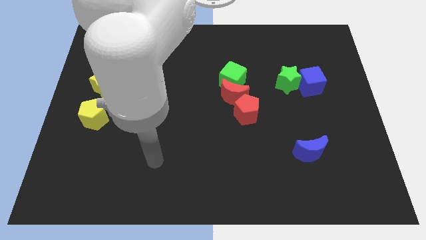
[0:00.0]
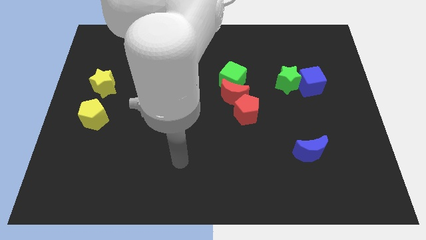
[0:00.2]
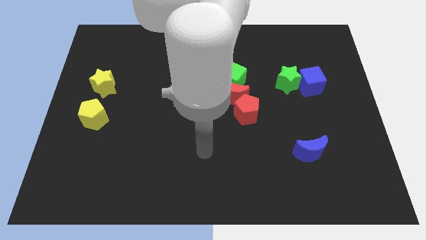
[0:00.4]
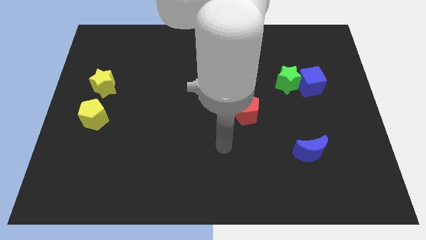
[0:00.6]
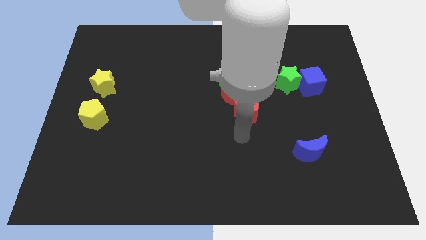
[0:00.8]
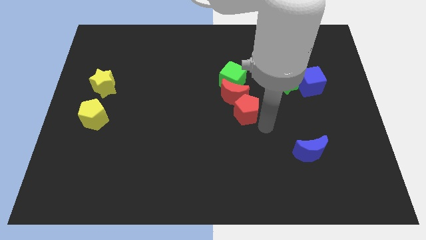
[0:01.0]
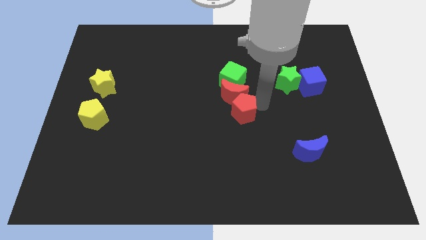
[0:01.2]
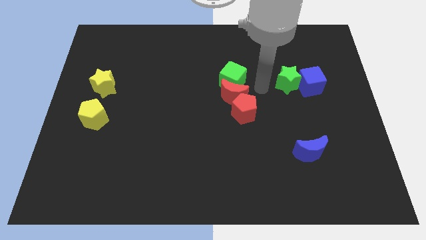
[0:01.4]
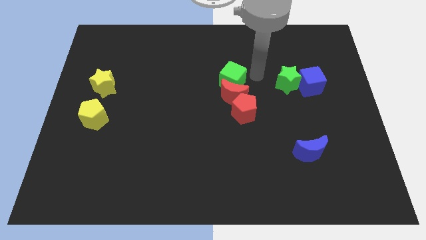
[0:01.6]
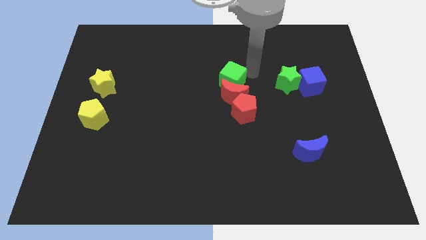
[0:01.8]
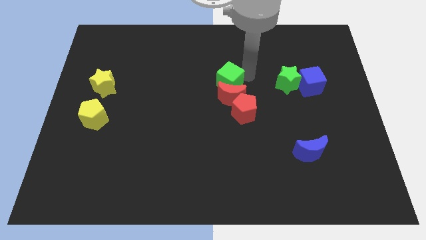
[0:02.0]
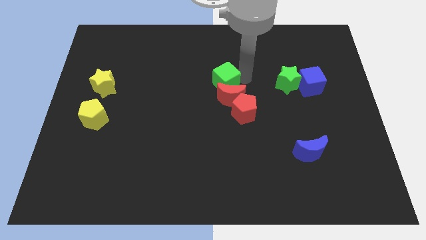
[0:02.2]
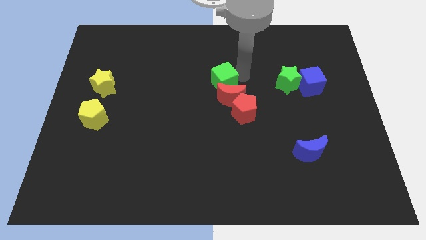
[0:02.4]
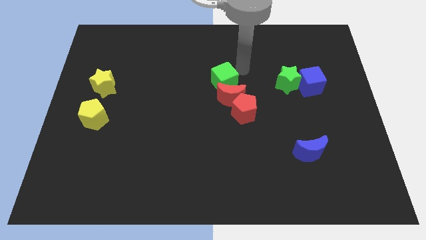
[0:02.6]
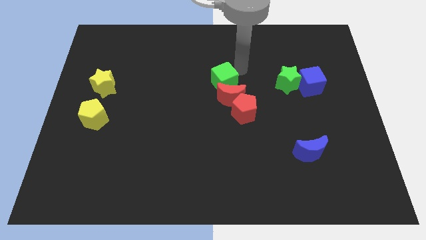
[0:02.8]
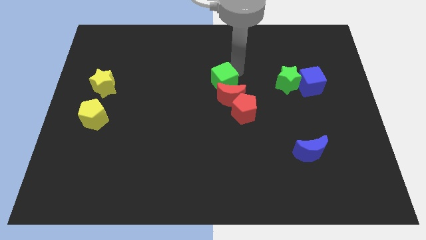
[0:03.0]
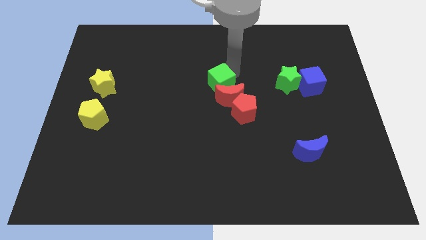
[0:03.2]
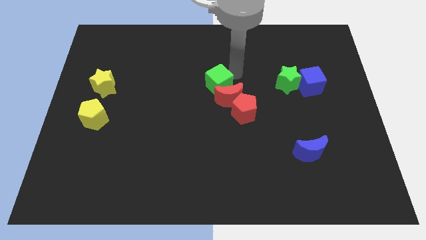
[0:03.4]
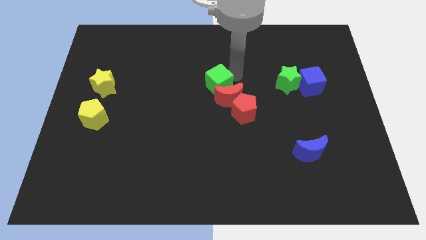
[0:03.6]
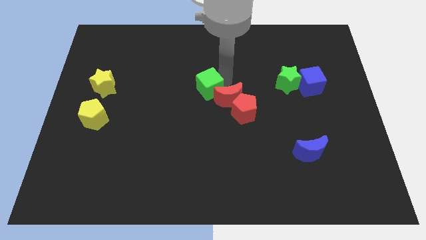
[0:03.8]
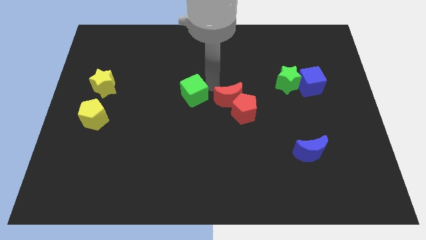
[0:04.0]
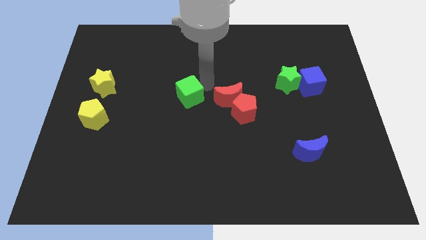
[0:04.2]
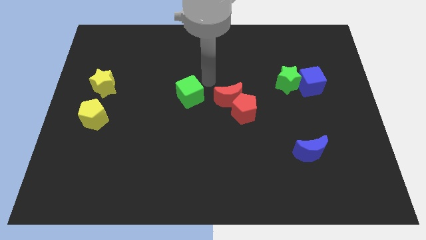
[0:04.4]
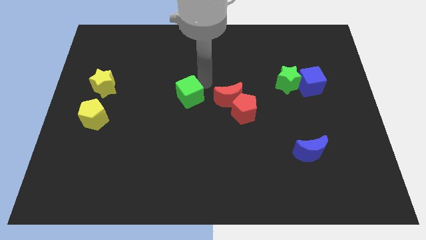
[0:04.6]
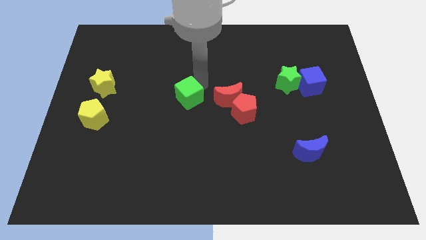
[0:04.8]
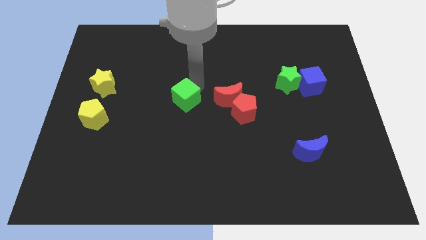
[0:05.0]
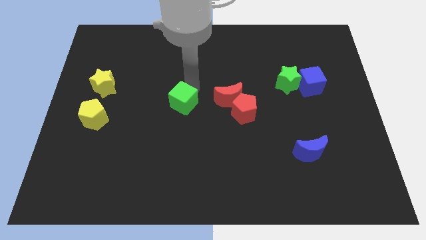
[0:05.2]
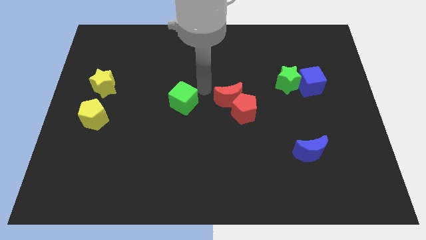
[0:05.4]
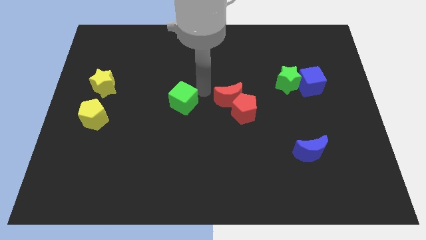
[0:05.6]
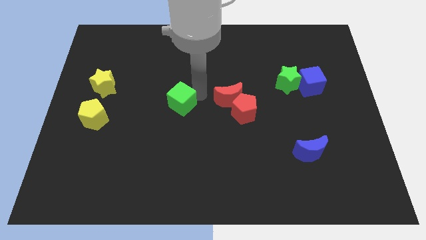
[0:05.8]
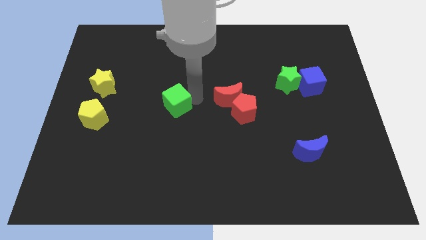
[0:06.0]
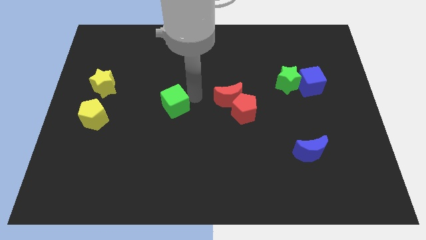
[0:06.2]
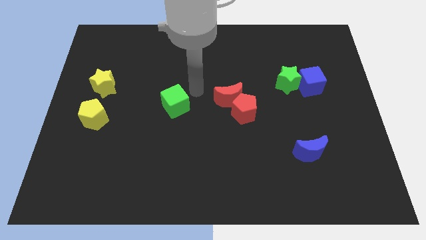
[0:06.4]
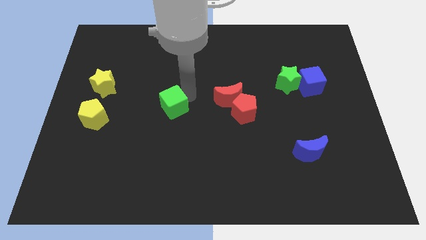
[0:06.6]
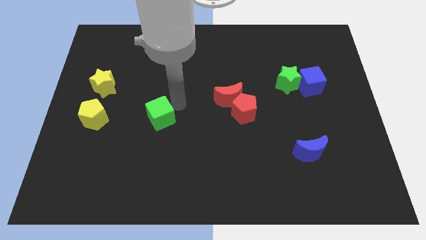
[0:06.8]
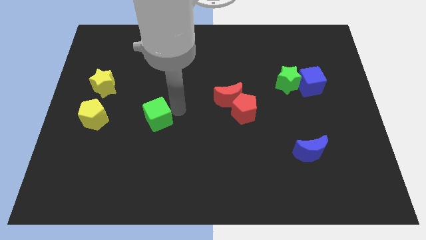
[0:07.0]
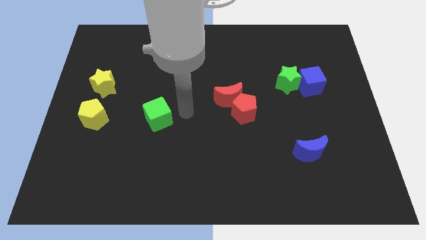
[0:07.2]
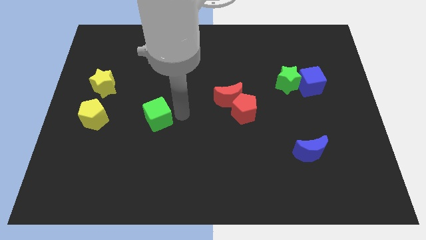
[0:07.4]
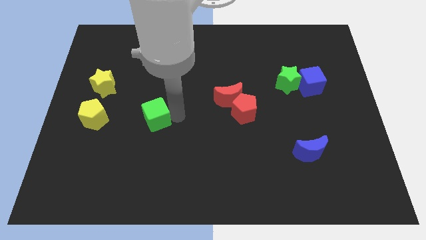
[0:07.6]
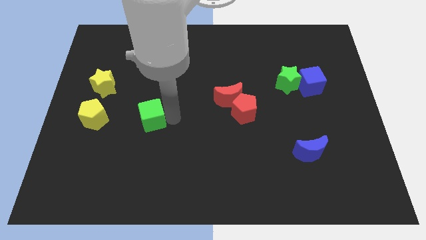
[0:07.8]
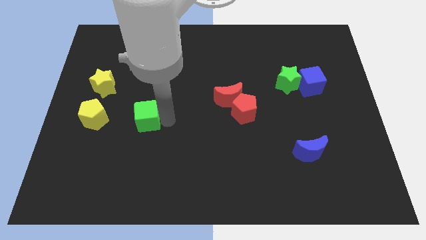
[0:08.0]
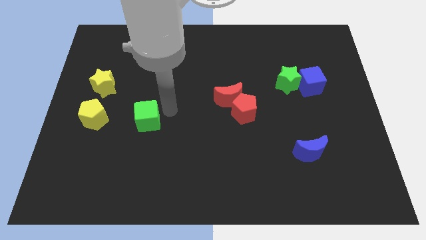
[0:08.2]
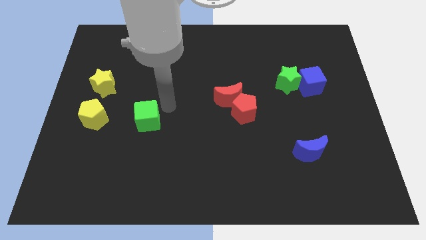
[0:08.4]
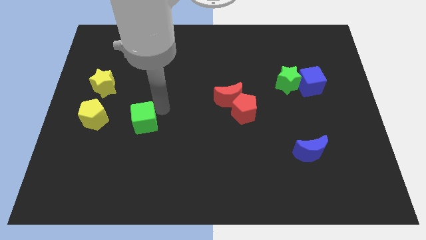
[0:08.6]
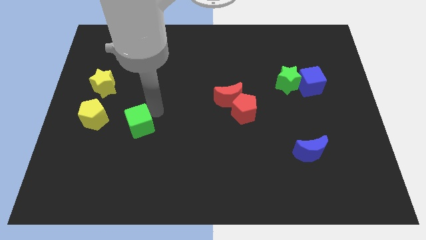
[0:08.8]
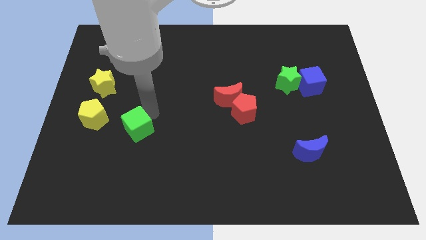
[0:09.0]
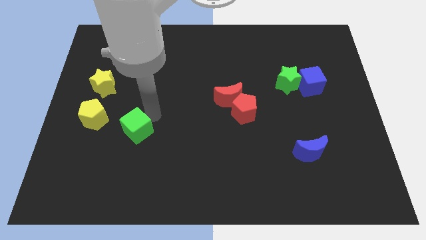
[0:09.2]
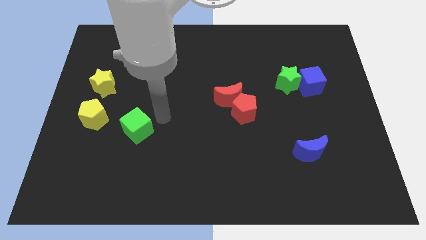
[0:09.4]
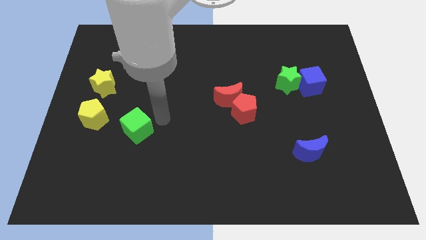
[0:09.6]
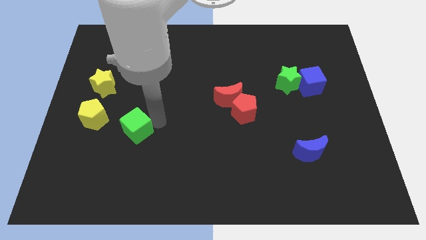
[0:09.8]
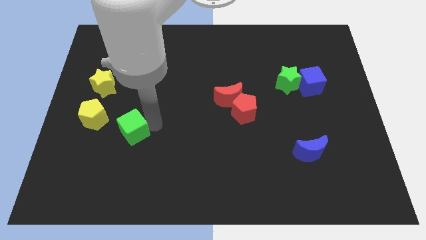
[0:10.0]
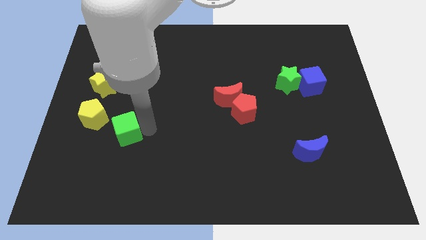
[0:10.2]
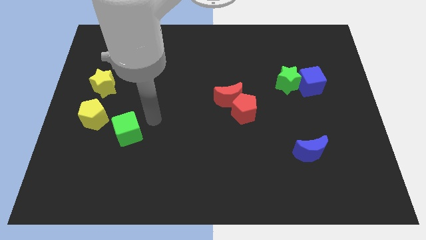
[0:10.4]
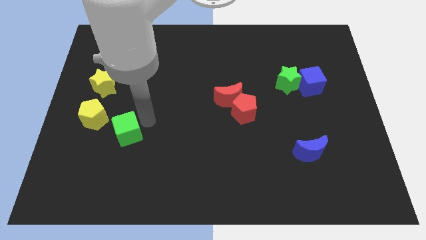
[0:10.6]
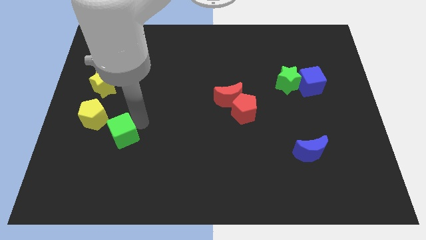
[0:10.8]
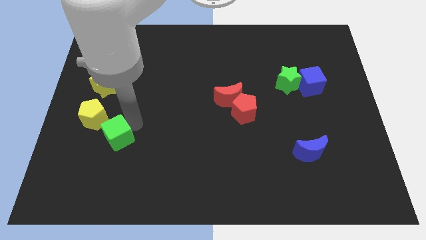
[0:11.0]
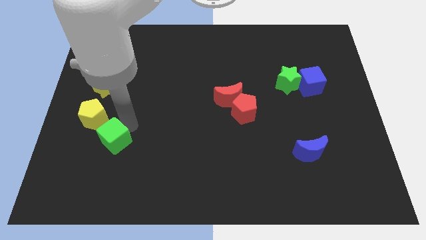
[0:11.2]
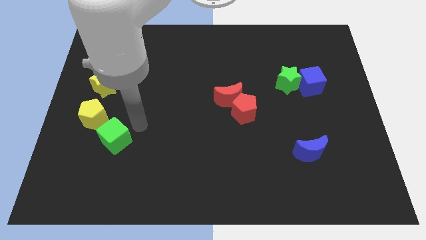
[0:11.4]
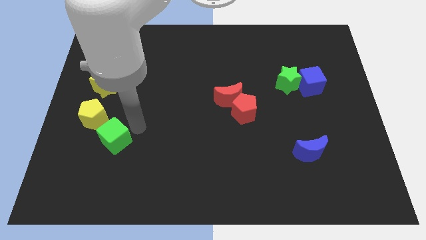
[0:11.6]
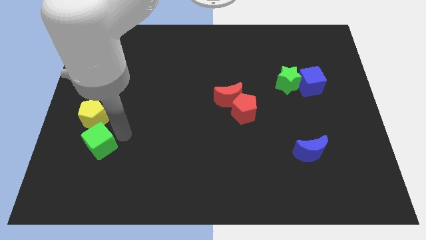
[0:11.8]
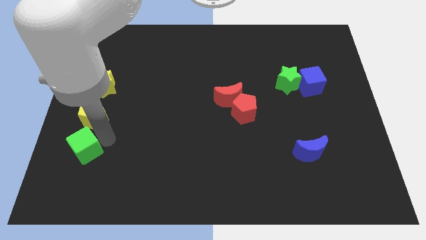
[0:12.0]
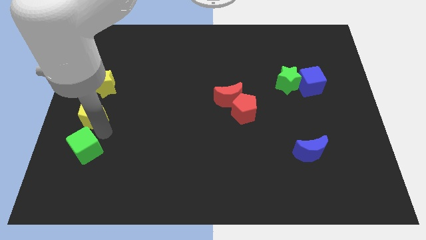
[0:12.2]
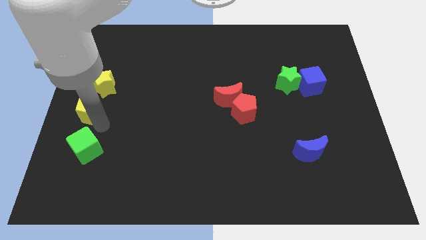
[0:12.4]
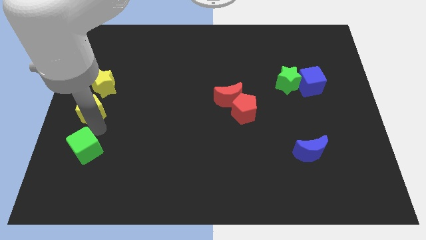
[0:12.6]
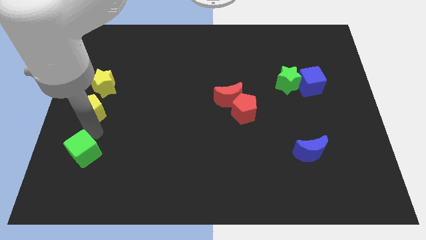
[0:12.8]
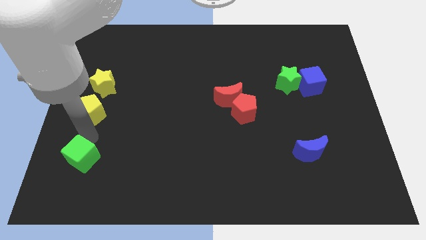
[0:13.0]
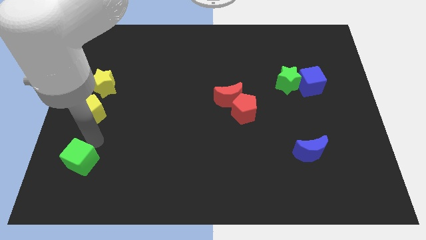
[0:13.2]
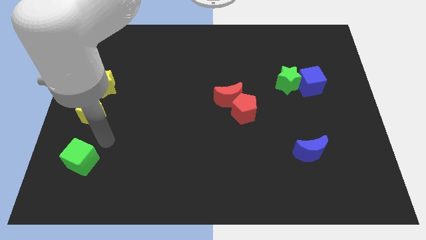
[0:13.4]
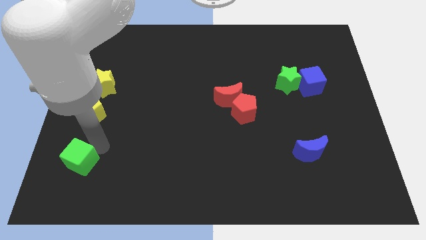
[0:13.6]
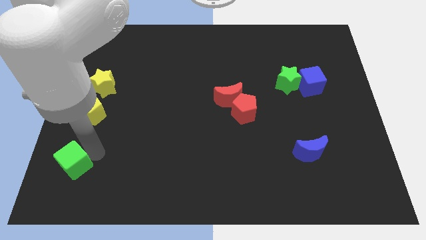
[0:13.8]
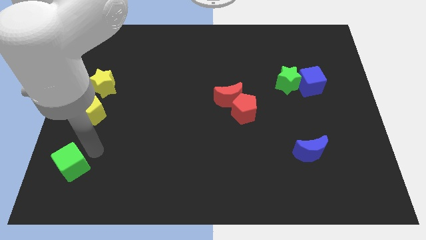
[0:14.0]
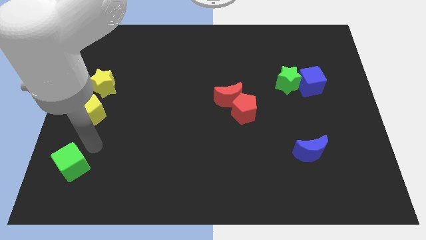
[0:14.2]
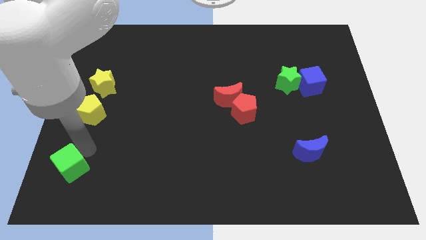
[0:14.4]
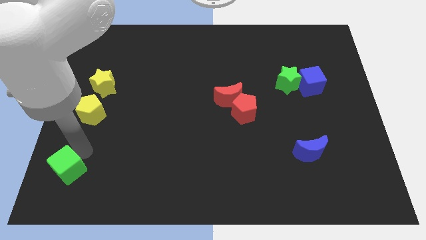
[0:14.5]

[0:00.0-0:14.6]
push the green cube to the bottom left
